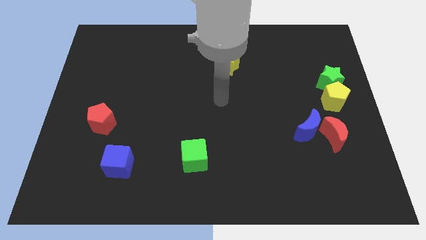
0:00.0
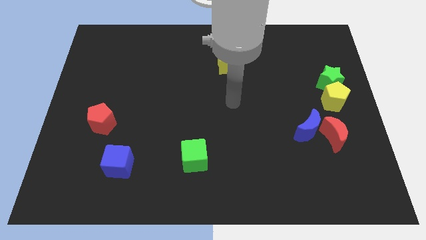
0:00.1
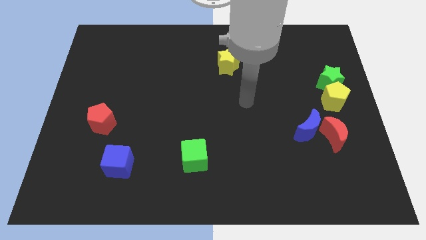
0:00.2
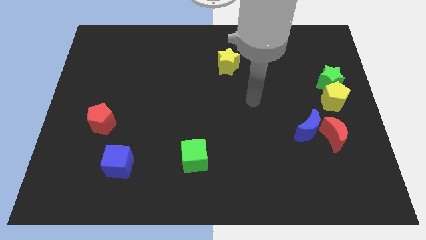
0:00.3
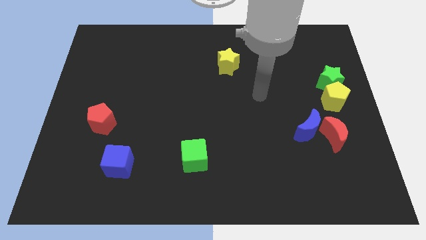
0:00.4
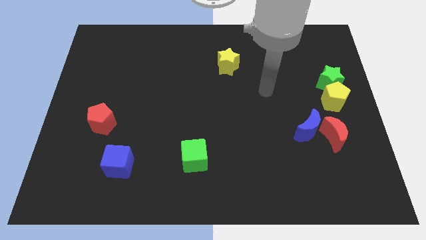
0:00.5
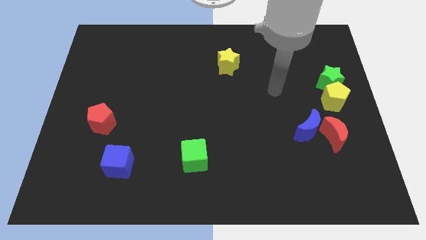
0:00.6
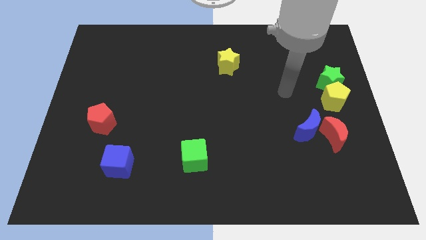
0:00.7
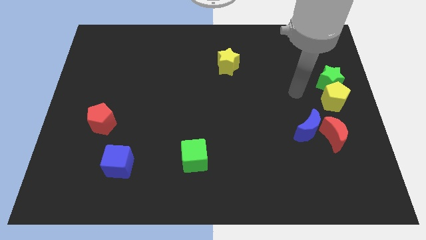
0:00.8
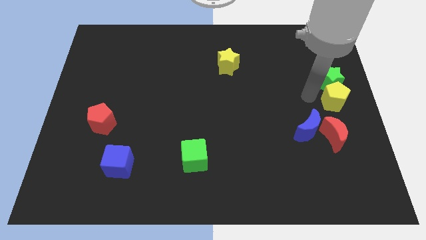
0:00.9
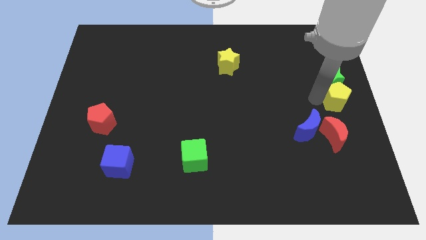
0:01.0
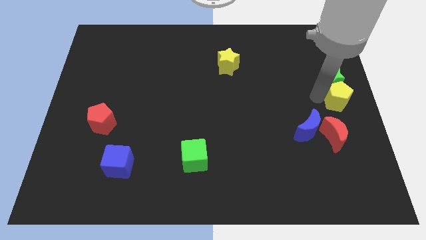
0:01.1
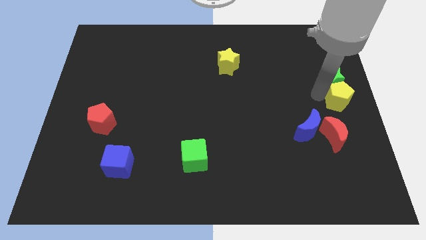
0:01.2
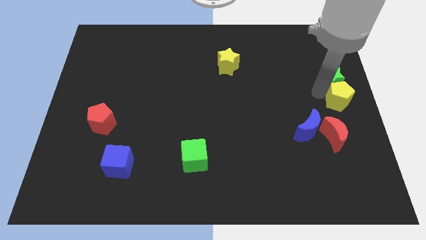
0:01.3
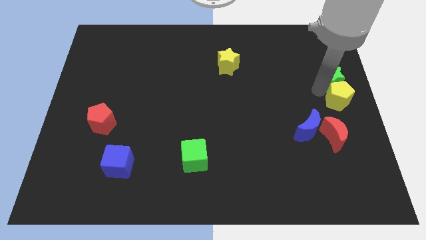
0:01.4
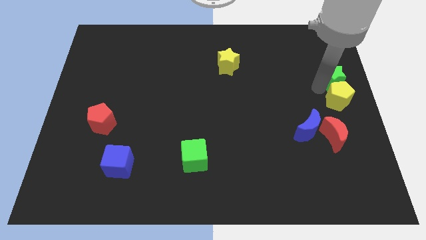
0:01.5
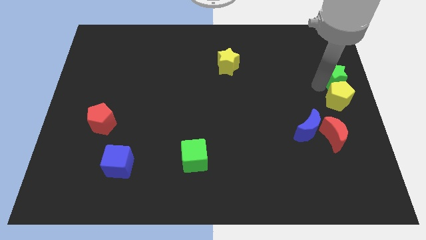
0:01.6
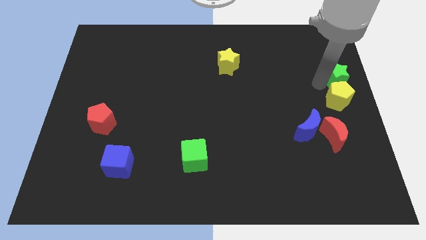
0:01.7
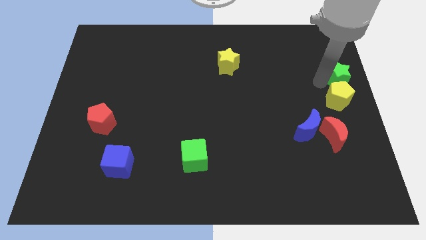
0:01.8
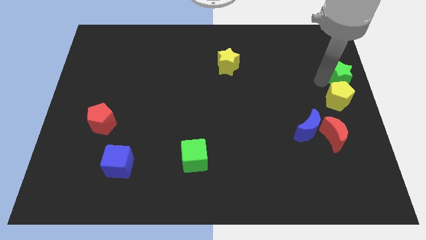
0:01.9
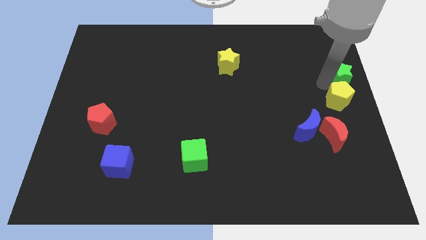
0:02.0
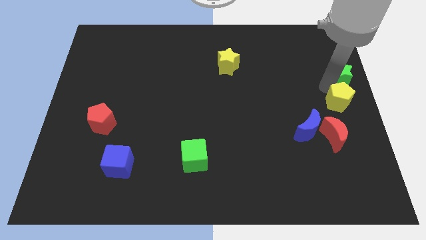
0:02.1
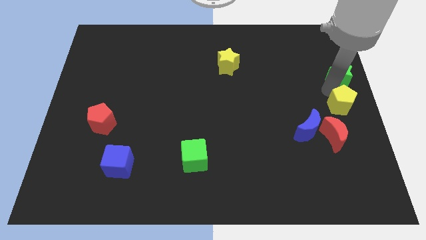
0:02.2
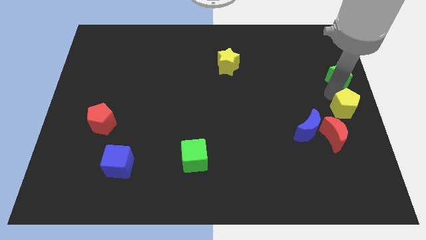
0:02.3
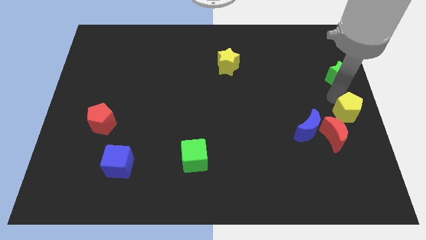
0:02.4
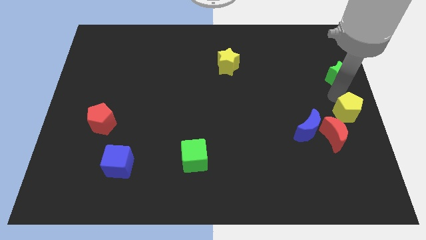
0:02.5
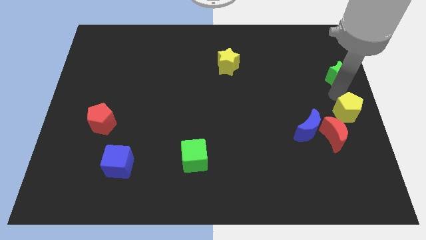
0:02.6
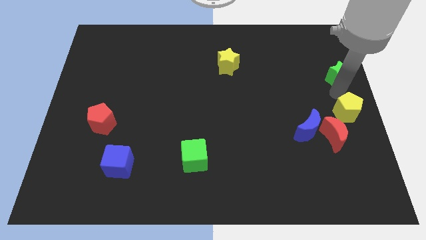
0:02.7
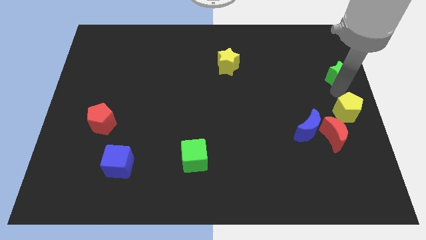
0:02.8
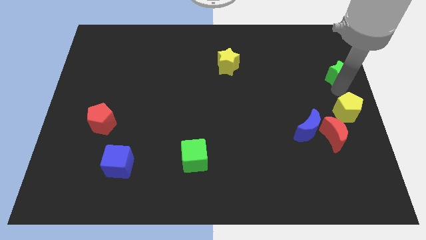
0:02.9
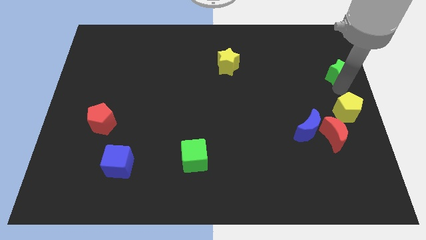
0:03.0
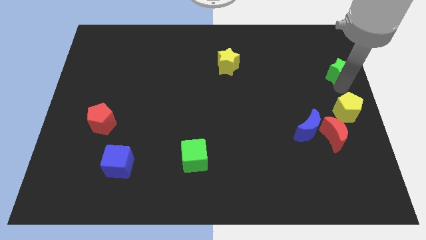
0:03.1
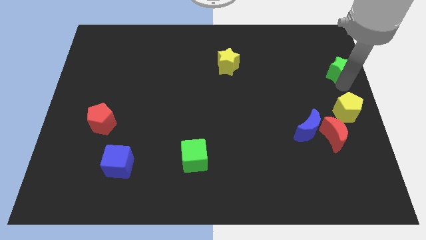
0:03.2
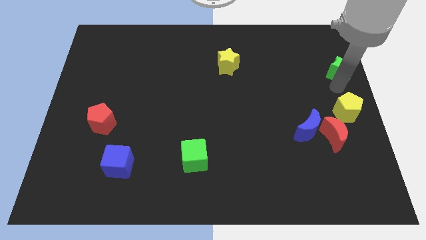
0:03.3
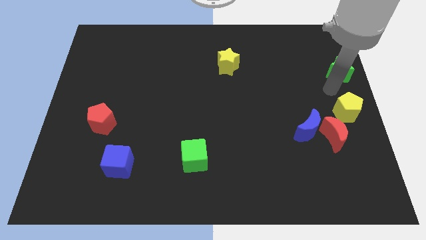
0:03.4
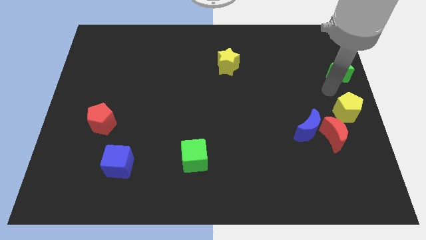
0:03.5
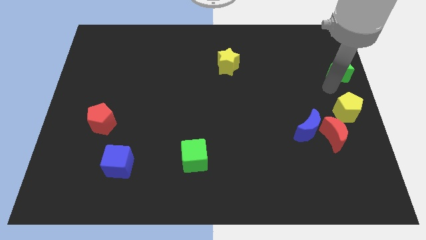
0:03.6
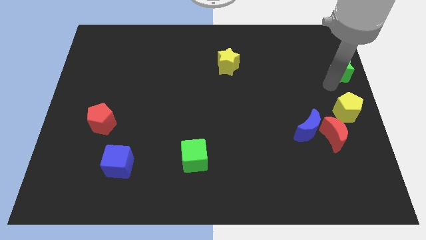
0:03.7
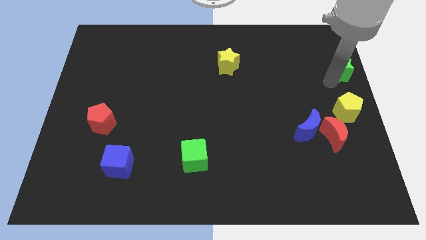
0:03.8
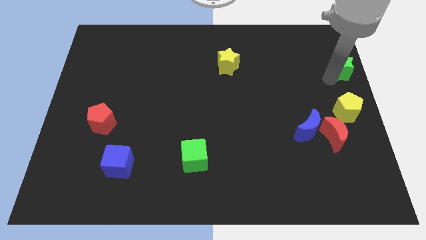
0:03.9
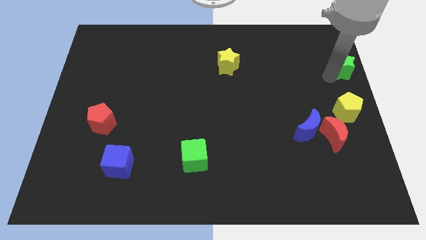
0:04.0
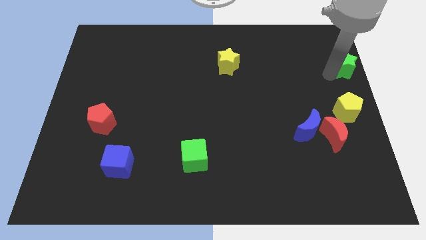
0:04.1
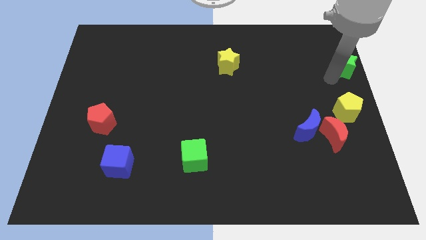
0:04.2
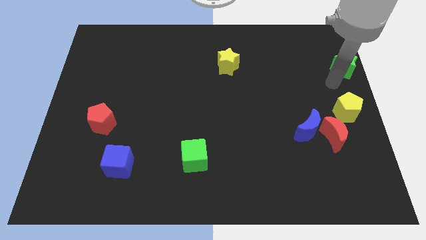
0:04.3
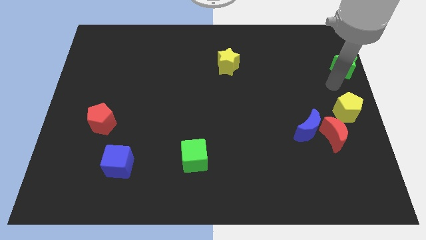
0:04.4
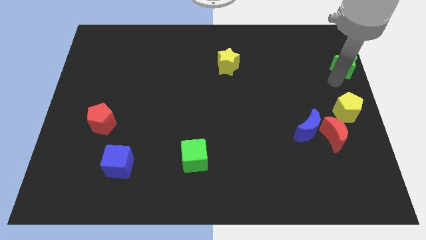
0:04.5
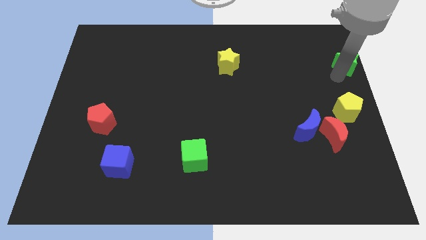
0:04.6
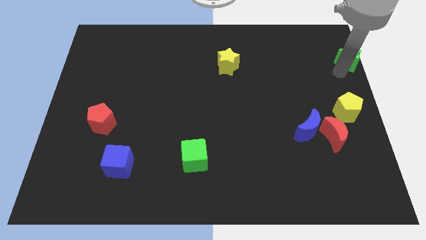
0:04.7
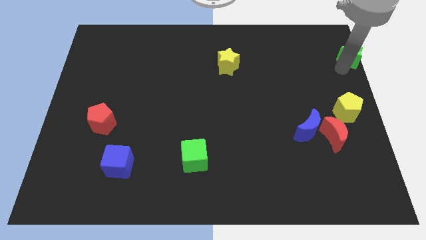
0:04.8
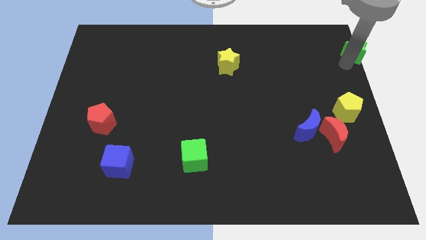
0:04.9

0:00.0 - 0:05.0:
push the green star to the upper right corner

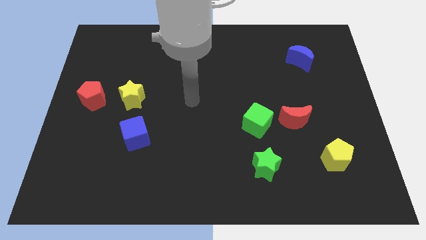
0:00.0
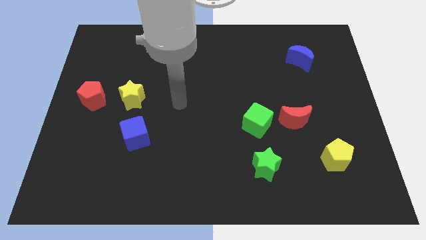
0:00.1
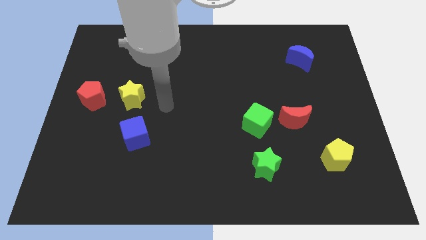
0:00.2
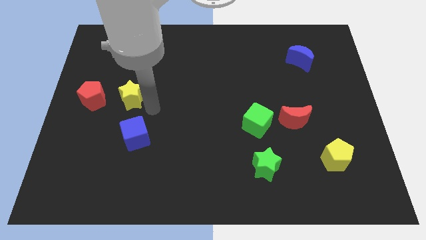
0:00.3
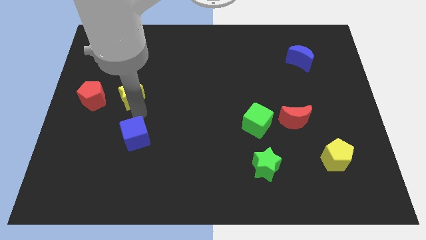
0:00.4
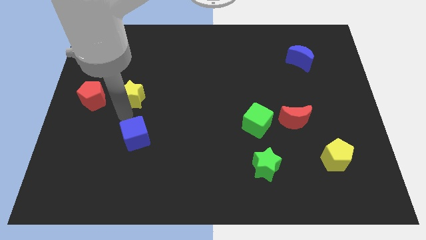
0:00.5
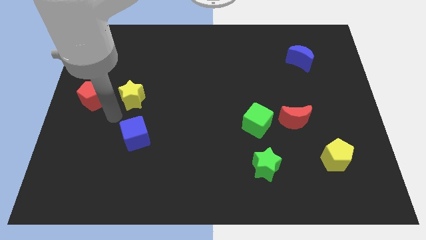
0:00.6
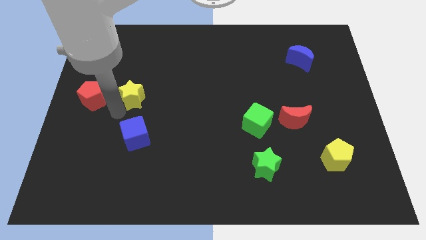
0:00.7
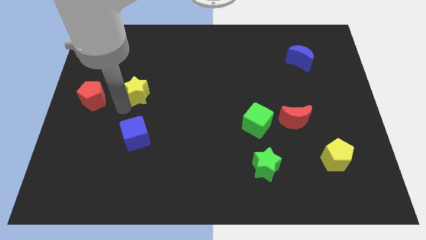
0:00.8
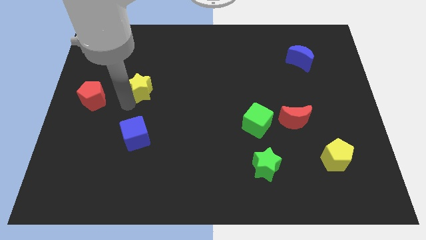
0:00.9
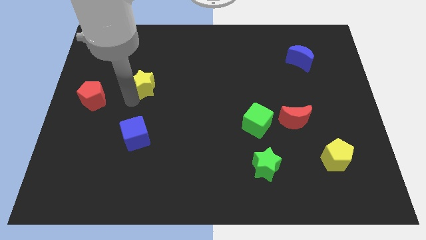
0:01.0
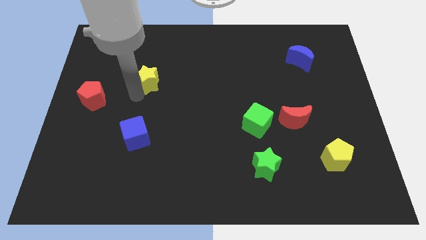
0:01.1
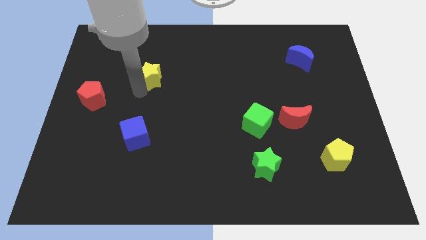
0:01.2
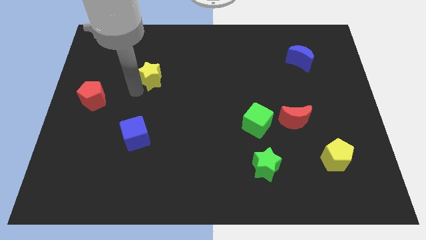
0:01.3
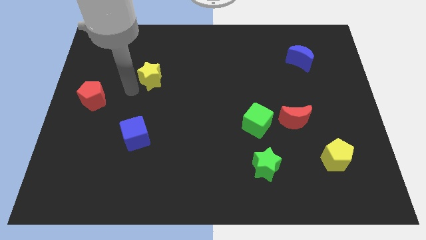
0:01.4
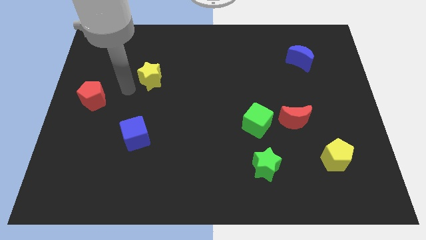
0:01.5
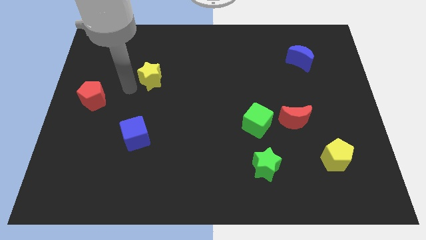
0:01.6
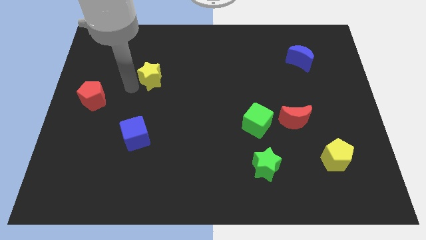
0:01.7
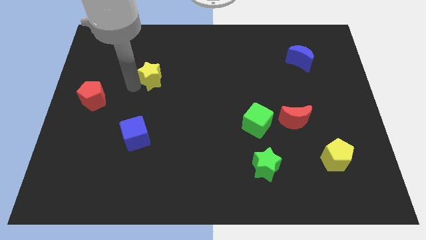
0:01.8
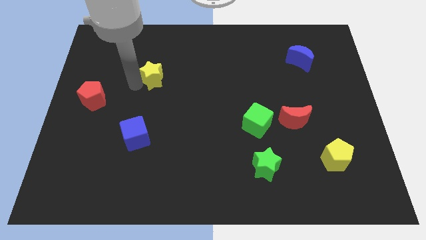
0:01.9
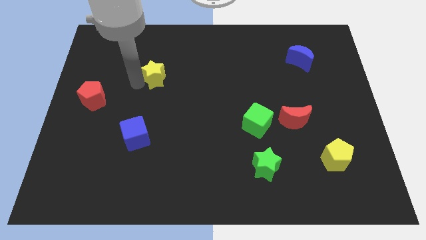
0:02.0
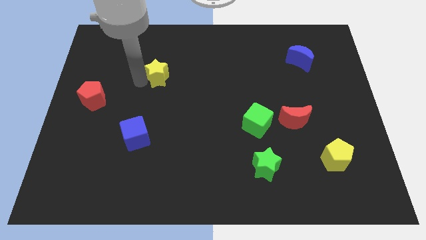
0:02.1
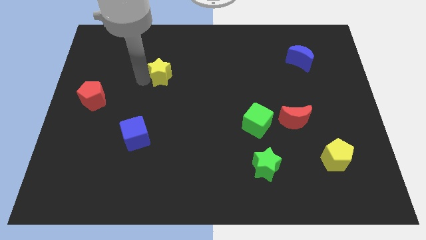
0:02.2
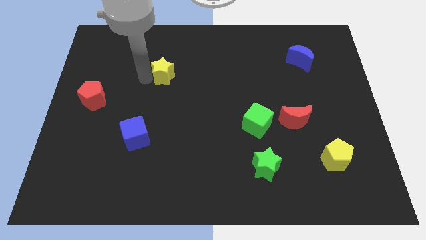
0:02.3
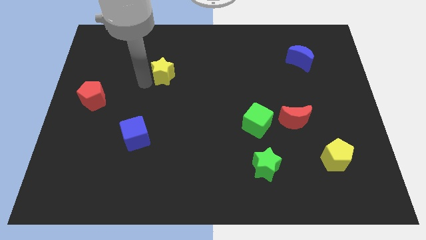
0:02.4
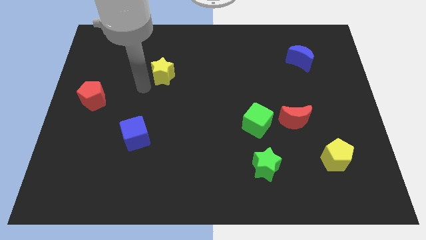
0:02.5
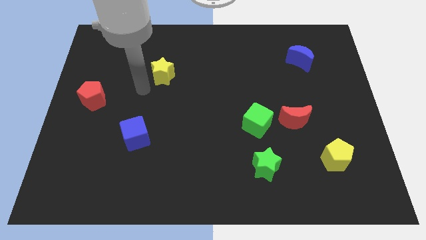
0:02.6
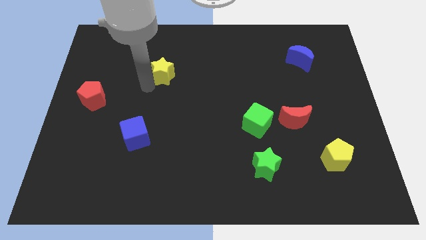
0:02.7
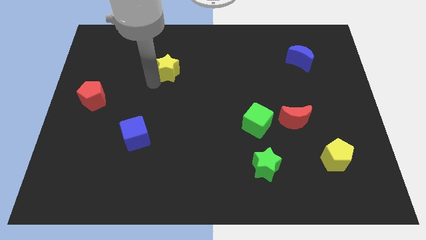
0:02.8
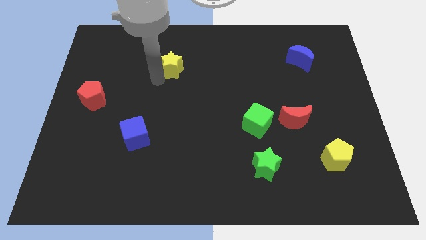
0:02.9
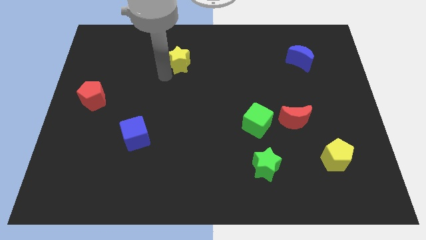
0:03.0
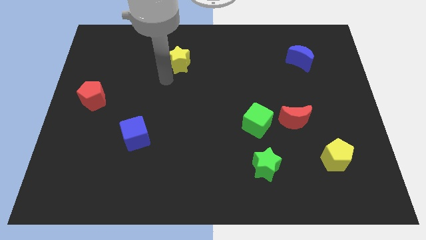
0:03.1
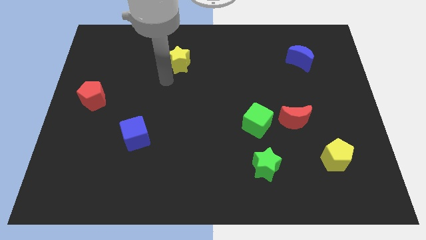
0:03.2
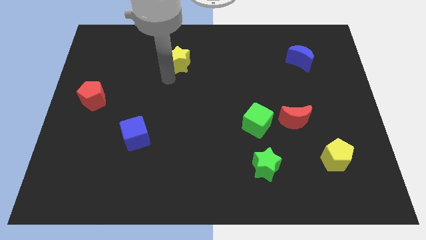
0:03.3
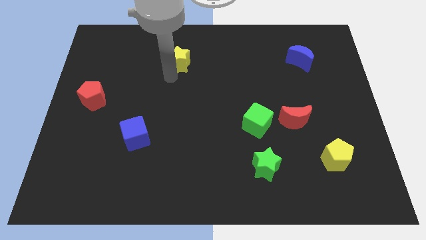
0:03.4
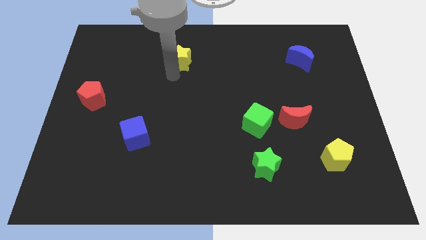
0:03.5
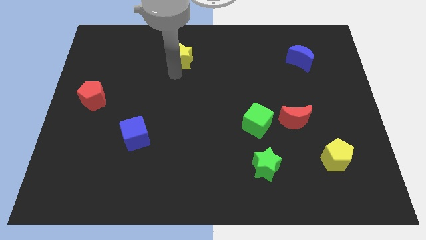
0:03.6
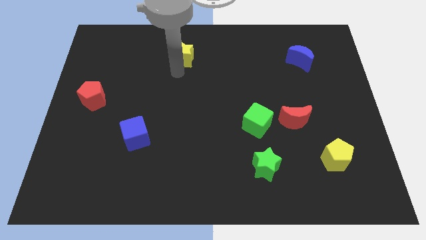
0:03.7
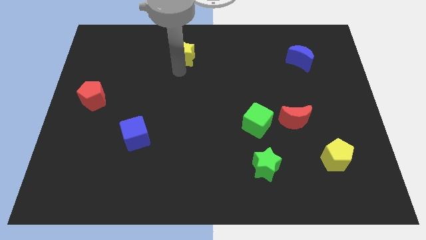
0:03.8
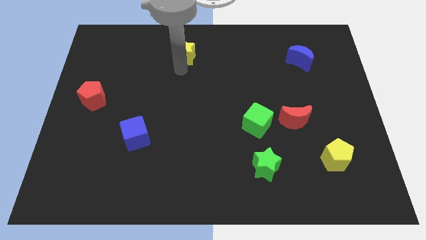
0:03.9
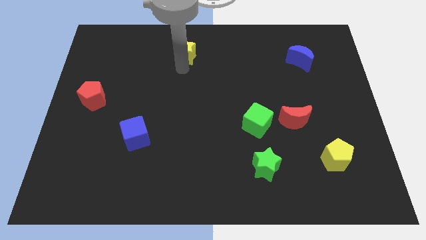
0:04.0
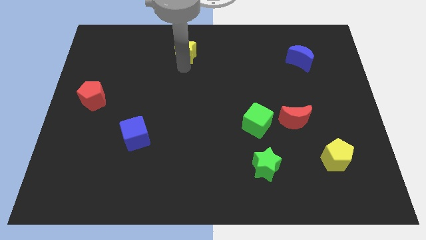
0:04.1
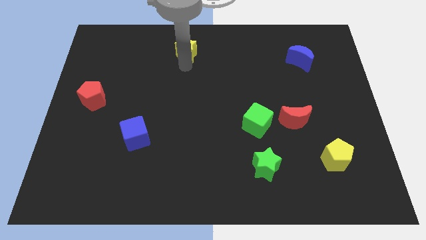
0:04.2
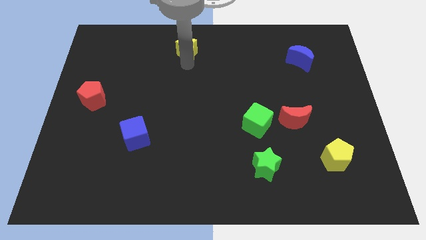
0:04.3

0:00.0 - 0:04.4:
put the yellow star to the top side
